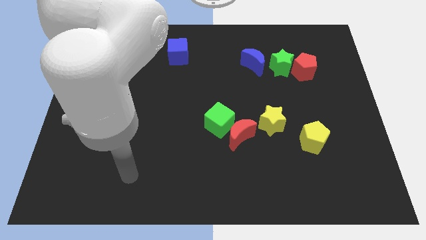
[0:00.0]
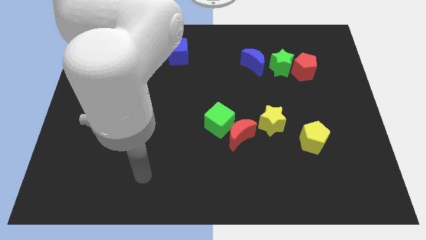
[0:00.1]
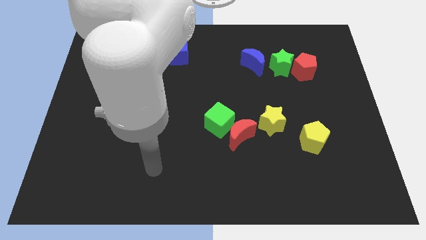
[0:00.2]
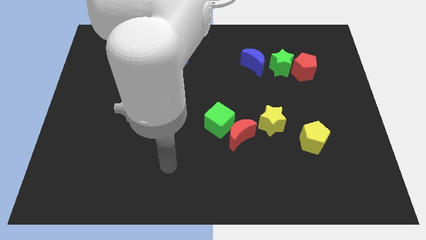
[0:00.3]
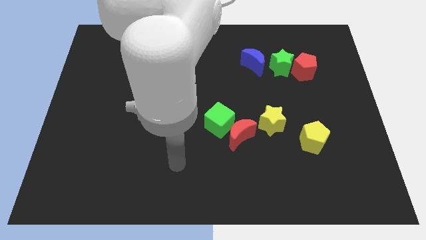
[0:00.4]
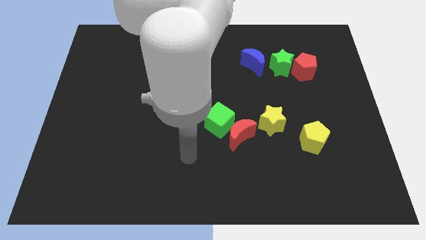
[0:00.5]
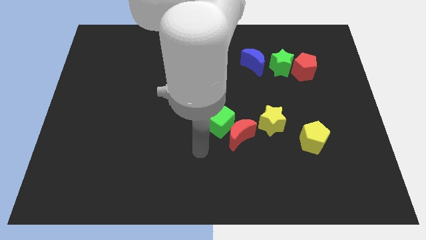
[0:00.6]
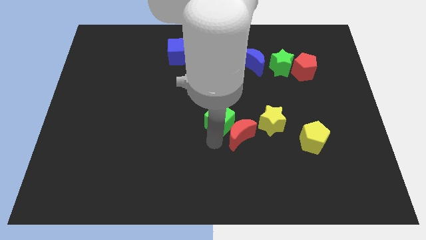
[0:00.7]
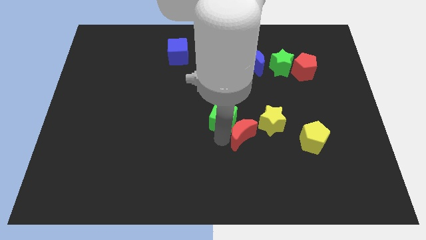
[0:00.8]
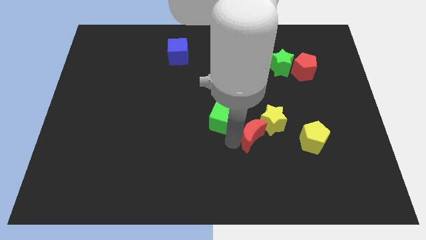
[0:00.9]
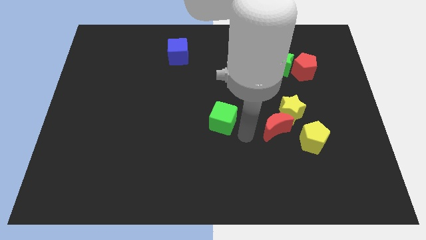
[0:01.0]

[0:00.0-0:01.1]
move the green cube away from the red moon

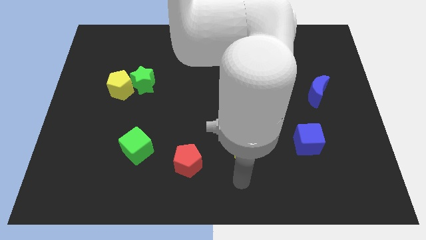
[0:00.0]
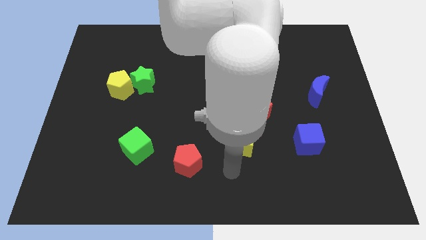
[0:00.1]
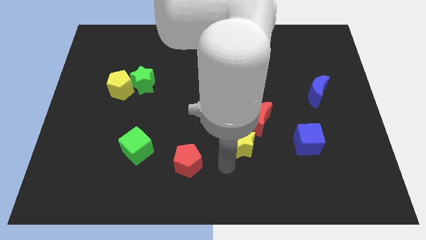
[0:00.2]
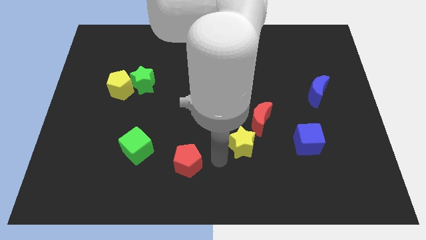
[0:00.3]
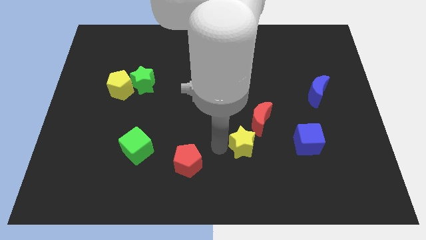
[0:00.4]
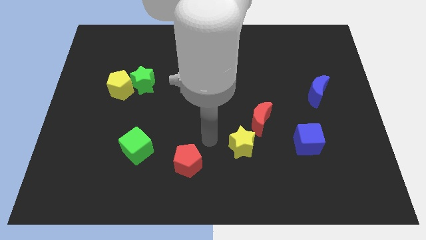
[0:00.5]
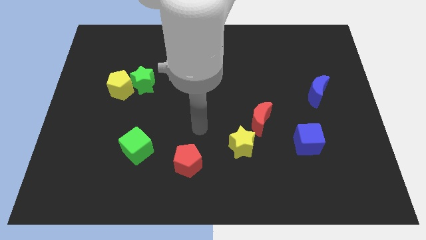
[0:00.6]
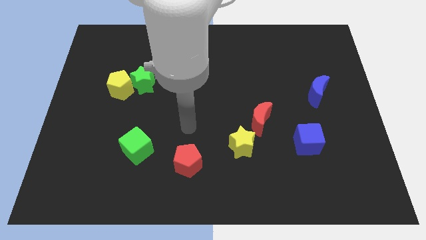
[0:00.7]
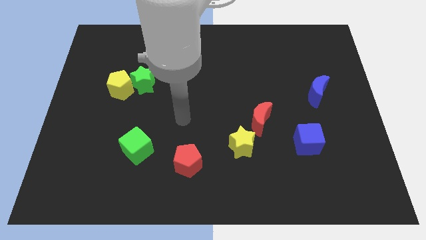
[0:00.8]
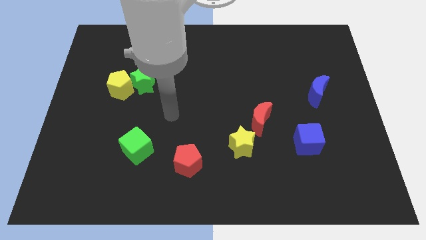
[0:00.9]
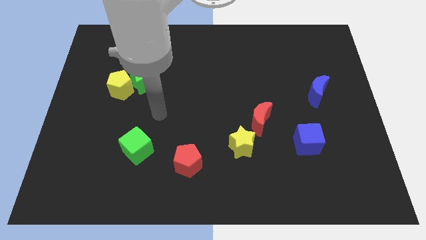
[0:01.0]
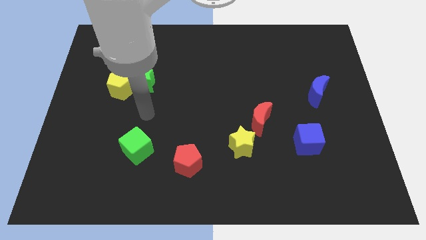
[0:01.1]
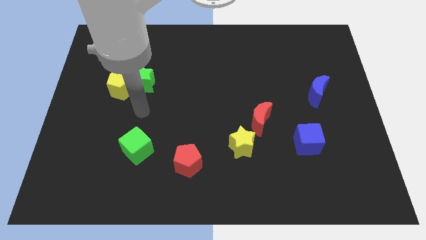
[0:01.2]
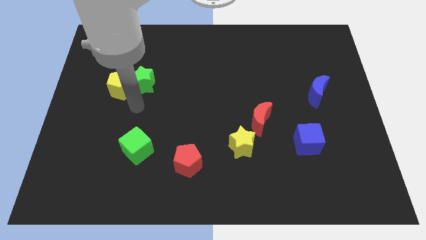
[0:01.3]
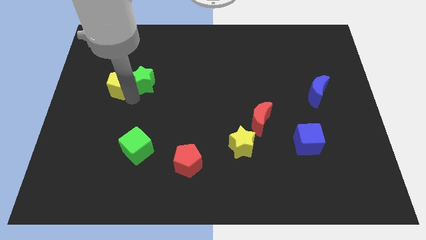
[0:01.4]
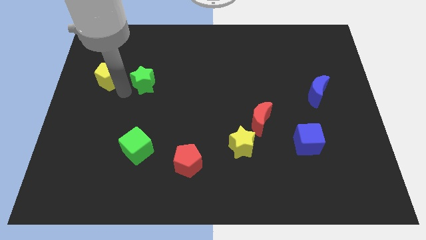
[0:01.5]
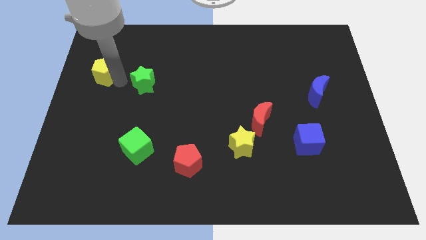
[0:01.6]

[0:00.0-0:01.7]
move the green star away from the yellow pentagon

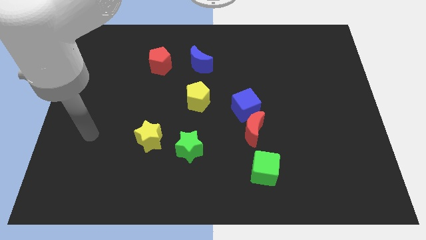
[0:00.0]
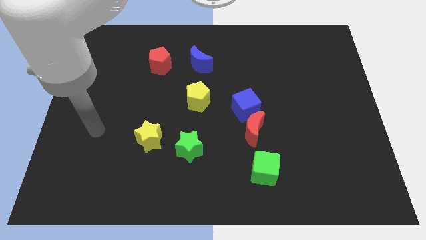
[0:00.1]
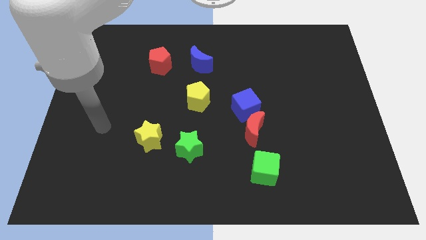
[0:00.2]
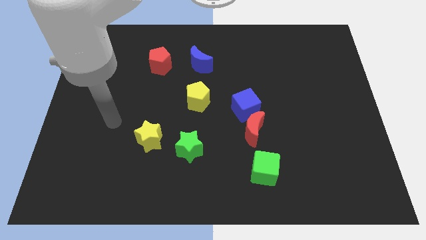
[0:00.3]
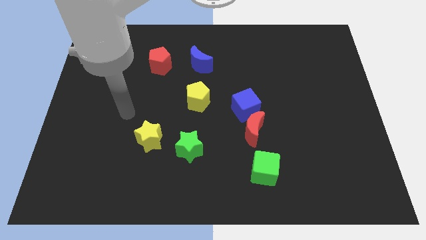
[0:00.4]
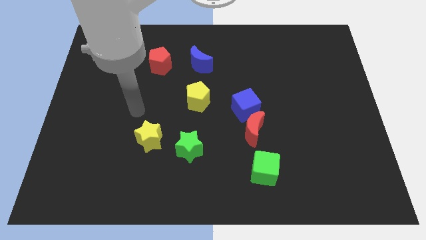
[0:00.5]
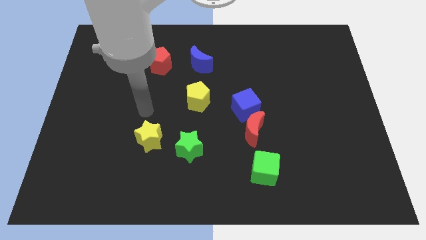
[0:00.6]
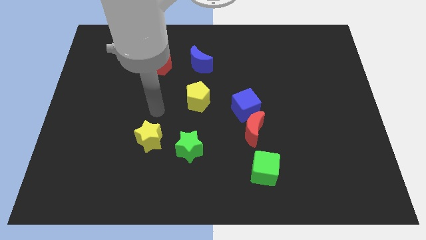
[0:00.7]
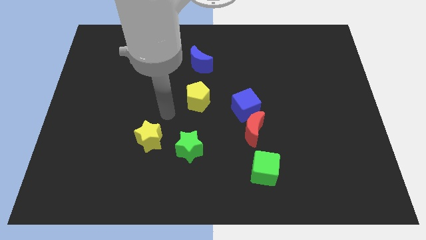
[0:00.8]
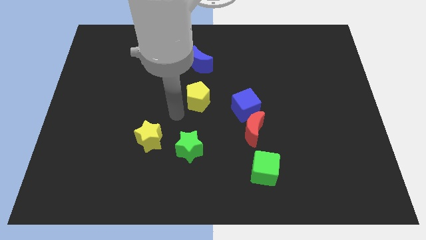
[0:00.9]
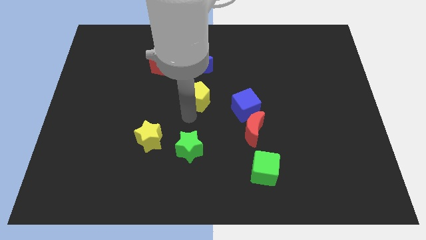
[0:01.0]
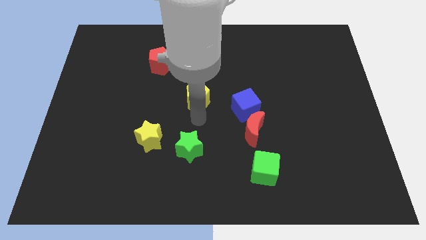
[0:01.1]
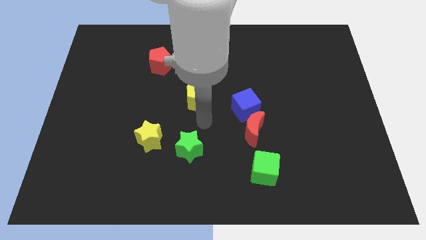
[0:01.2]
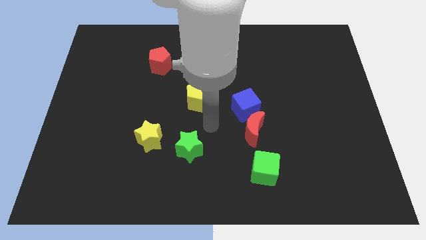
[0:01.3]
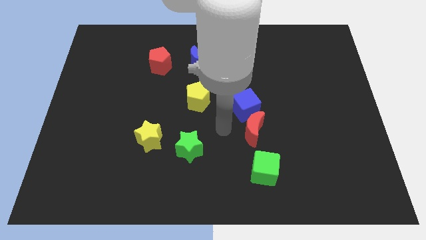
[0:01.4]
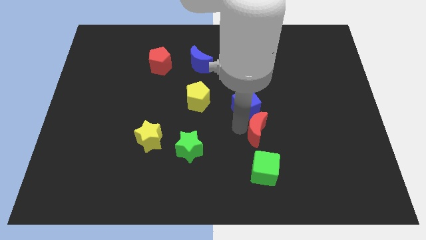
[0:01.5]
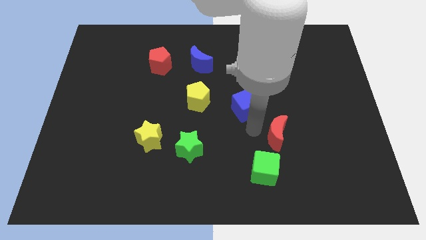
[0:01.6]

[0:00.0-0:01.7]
move the blue cube away from the red moon

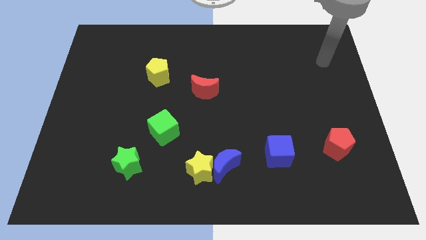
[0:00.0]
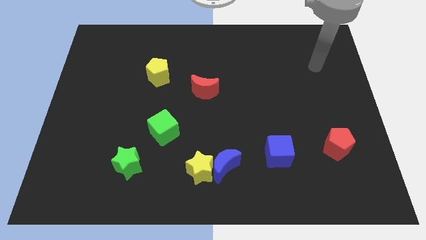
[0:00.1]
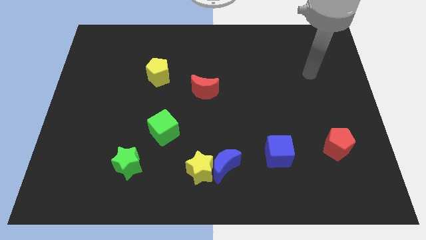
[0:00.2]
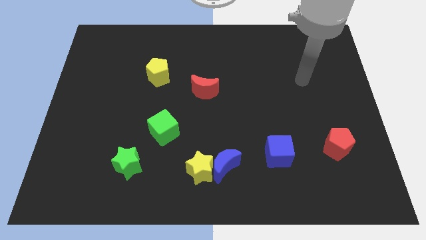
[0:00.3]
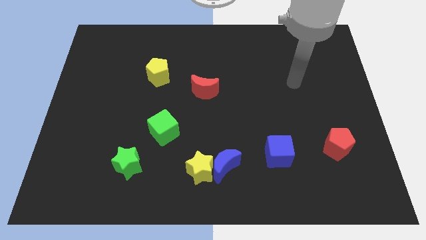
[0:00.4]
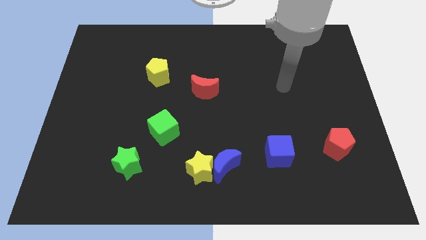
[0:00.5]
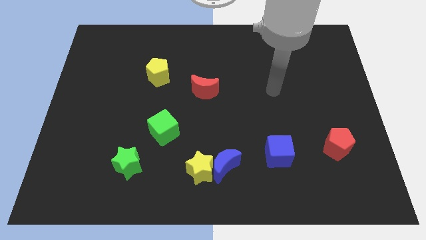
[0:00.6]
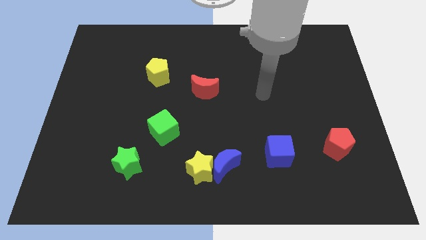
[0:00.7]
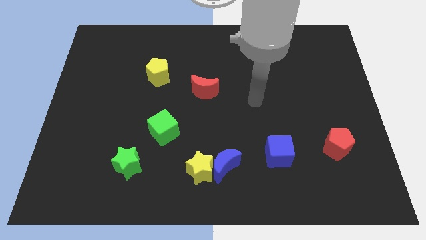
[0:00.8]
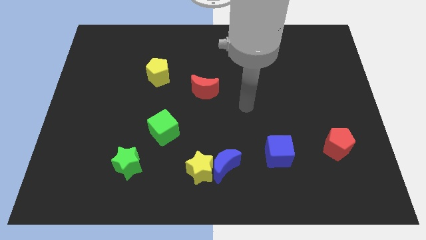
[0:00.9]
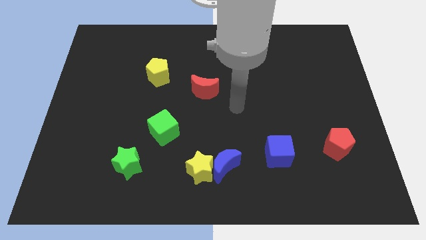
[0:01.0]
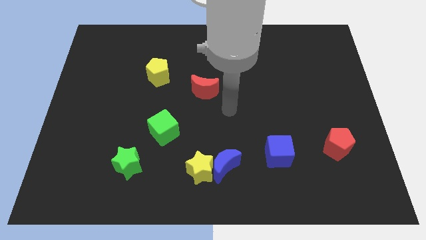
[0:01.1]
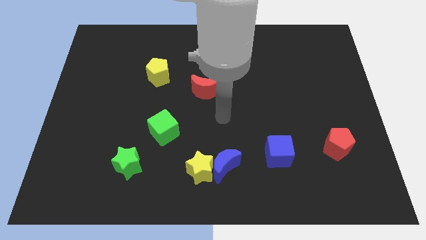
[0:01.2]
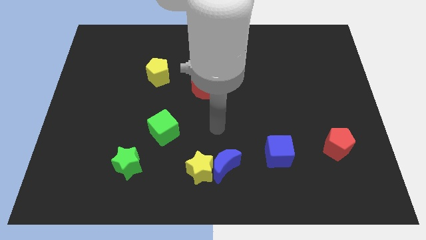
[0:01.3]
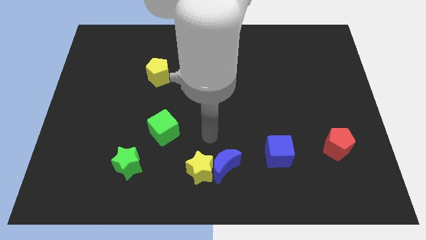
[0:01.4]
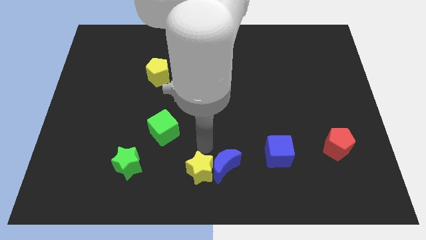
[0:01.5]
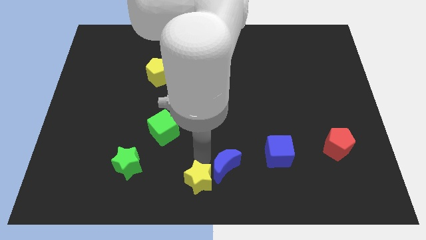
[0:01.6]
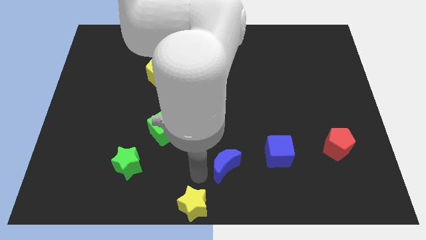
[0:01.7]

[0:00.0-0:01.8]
separate the blue moon from the yellow star

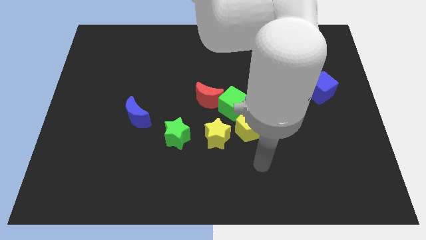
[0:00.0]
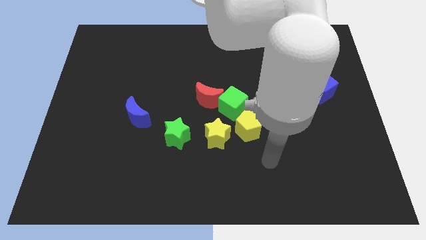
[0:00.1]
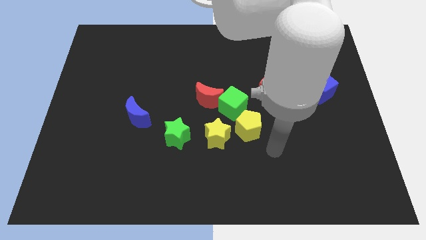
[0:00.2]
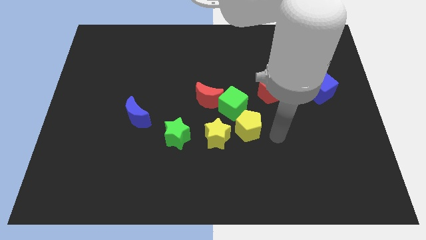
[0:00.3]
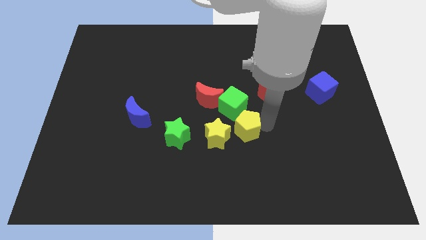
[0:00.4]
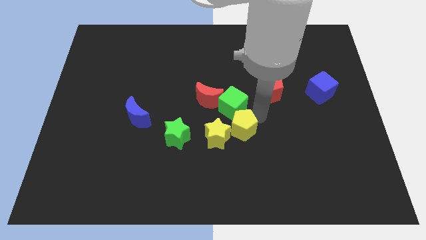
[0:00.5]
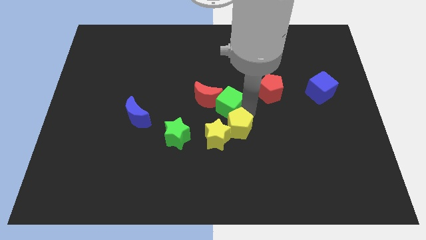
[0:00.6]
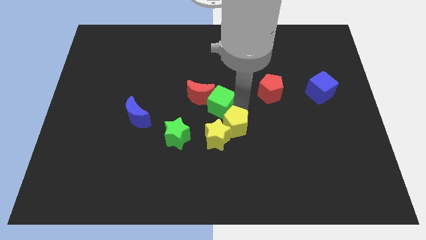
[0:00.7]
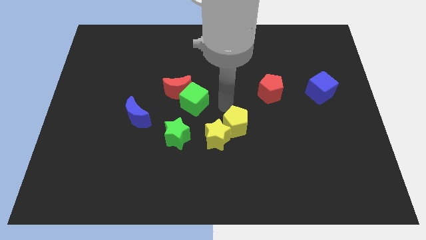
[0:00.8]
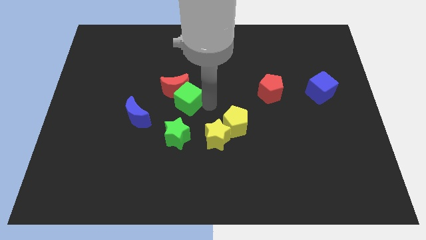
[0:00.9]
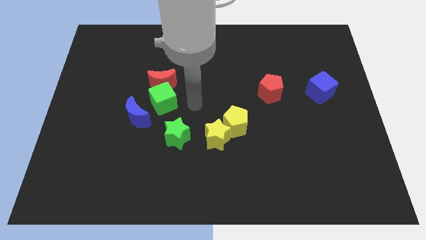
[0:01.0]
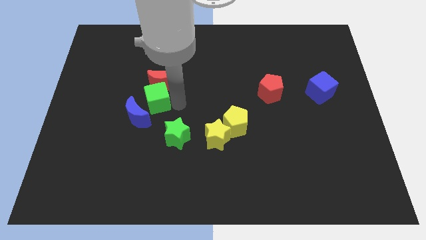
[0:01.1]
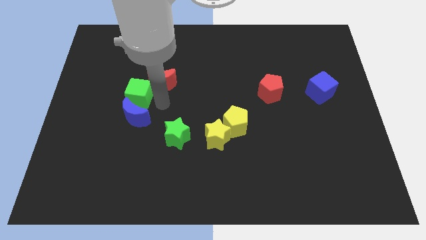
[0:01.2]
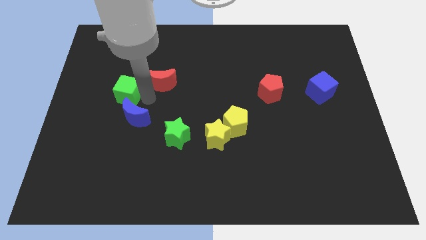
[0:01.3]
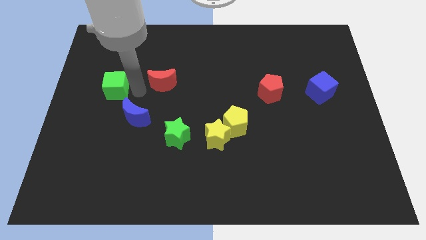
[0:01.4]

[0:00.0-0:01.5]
separate the red moon from the green cube

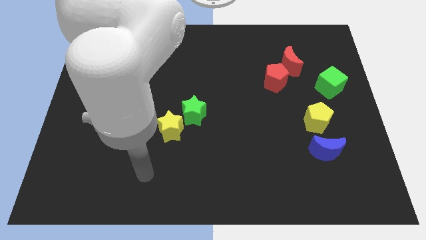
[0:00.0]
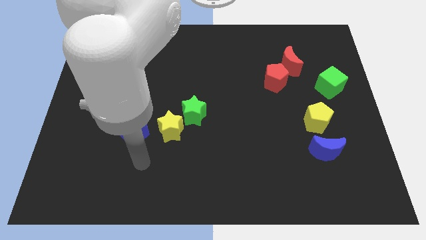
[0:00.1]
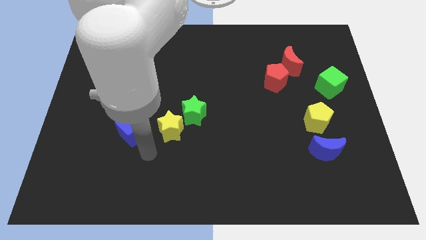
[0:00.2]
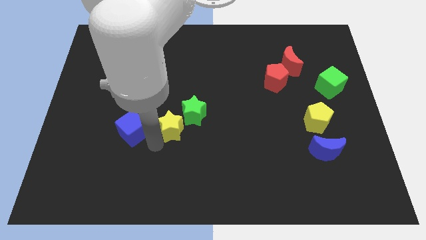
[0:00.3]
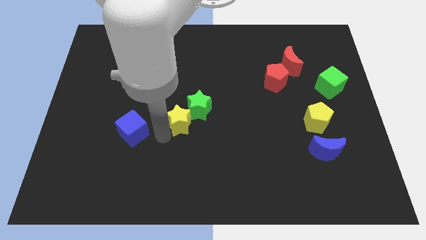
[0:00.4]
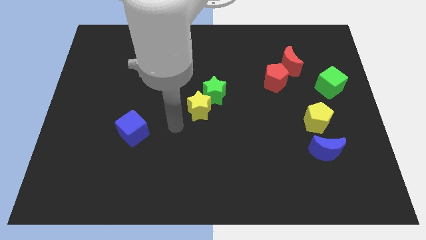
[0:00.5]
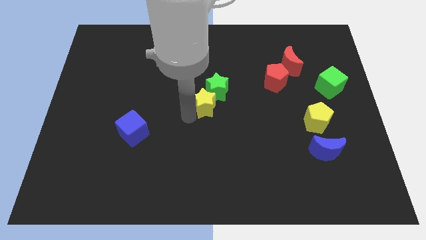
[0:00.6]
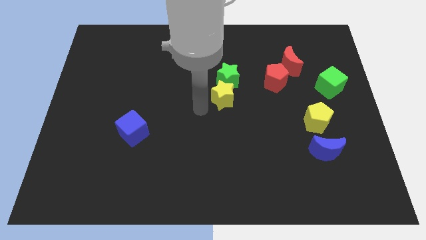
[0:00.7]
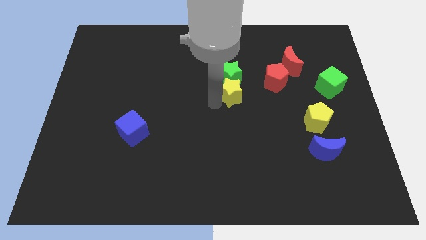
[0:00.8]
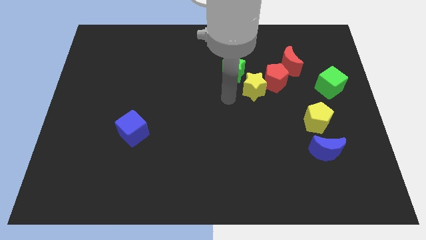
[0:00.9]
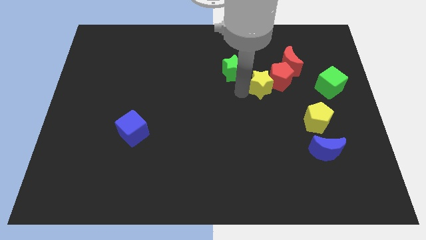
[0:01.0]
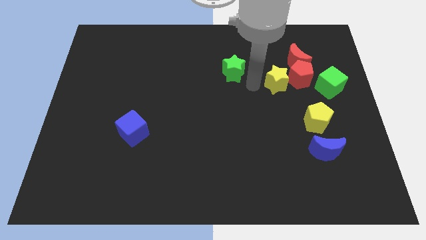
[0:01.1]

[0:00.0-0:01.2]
pull the green star apart from the yellow star

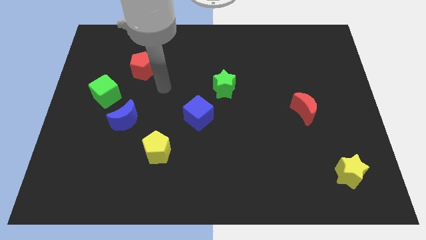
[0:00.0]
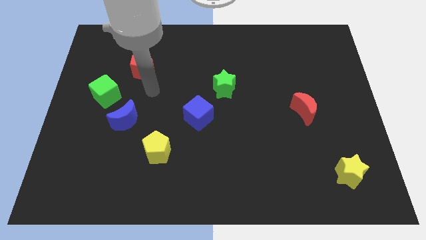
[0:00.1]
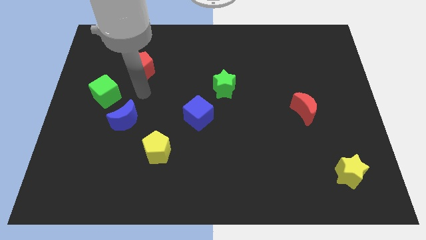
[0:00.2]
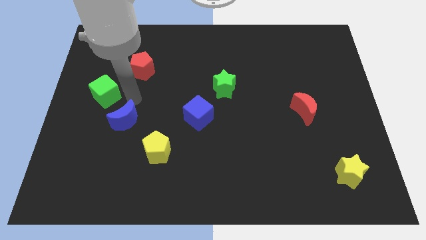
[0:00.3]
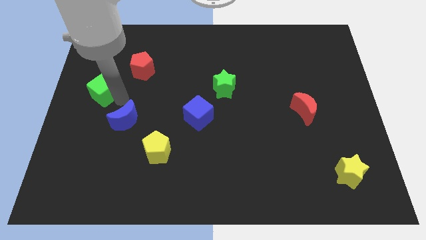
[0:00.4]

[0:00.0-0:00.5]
move the blue moon away from the green cube
